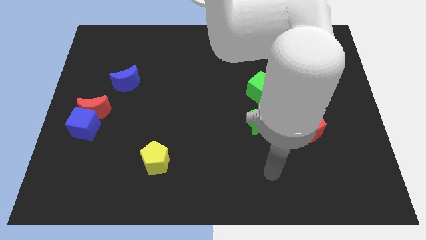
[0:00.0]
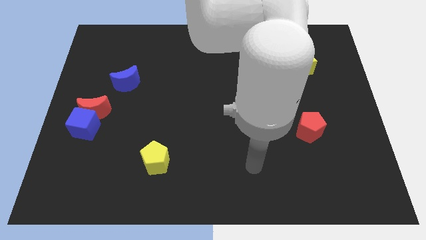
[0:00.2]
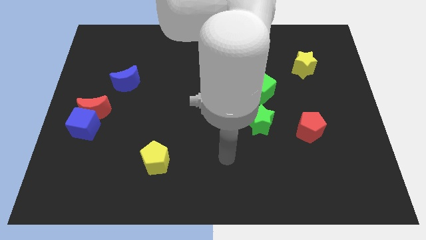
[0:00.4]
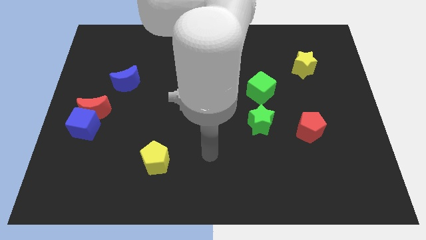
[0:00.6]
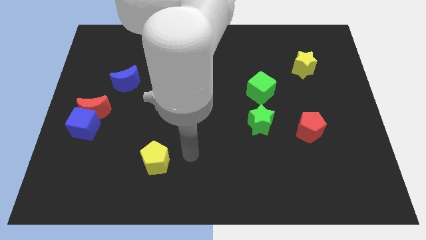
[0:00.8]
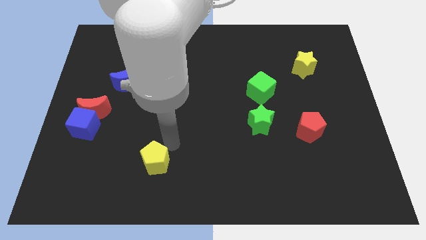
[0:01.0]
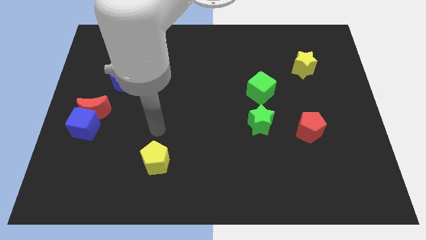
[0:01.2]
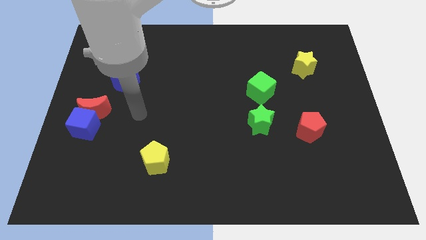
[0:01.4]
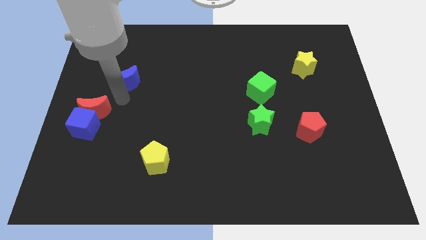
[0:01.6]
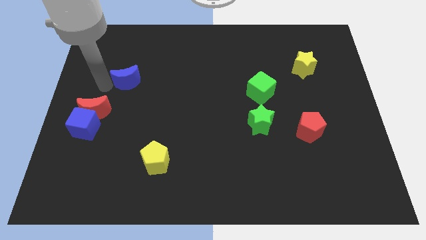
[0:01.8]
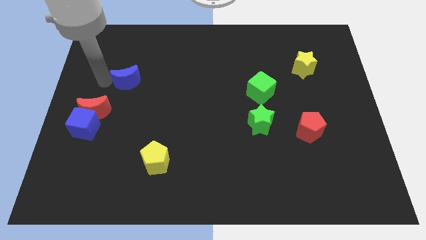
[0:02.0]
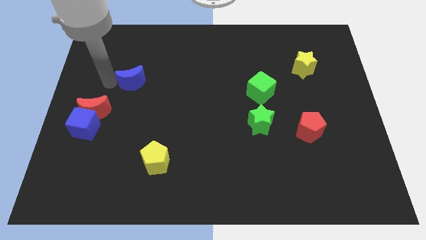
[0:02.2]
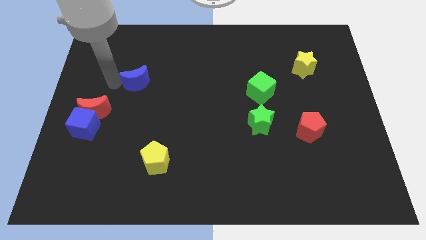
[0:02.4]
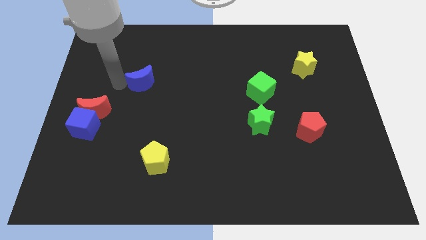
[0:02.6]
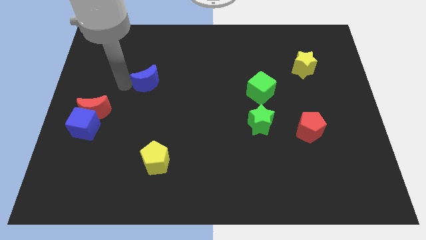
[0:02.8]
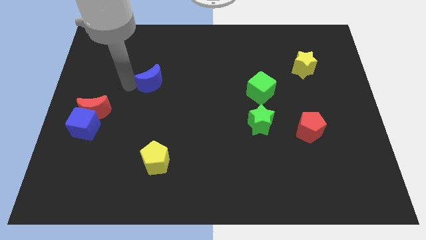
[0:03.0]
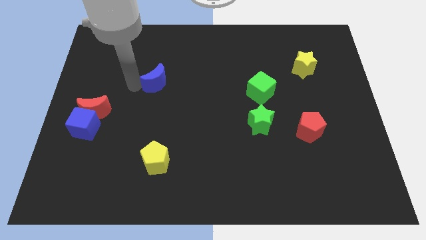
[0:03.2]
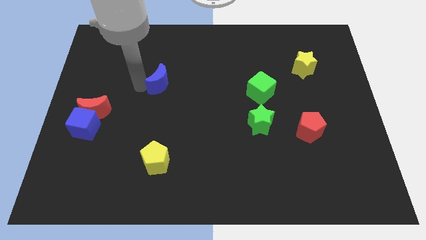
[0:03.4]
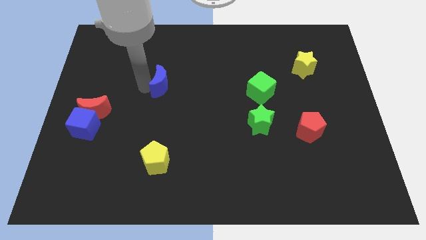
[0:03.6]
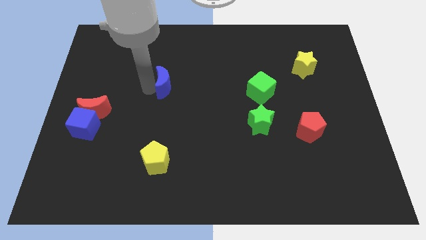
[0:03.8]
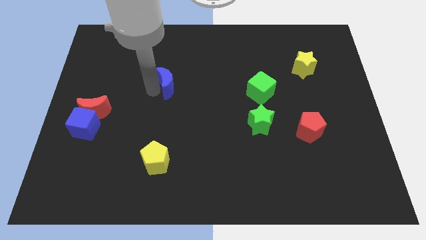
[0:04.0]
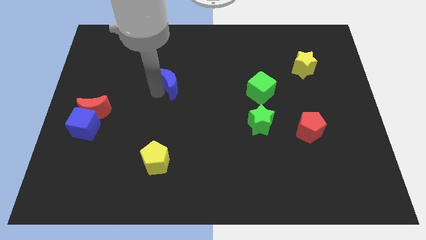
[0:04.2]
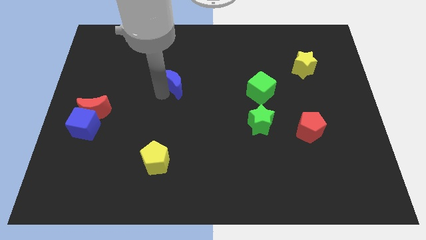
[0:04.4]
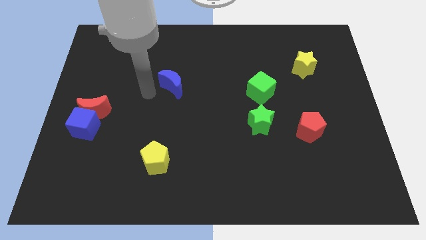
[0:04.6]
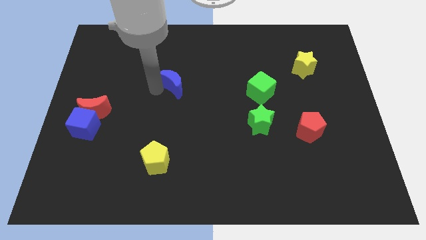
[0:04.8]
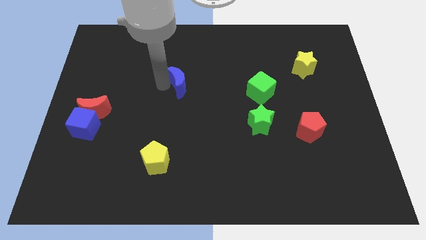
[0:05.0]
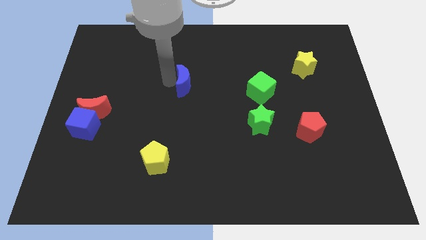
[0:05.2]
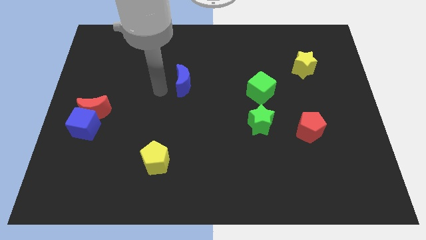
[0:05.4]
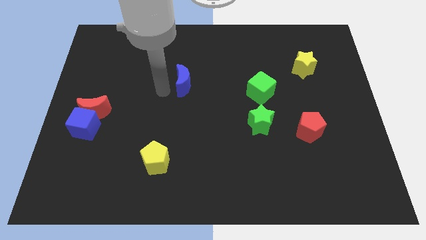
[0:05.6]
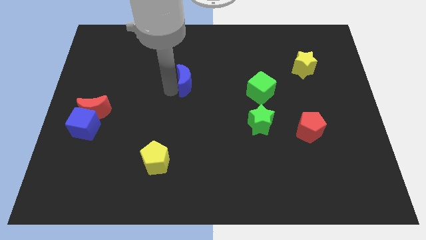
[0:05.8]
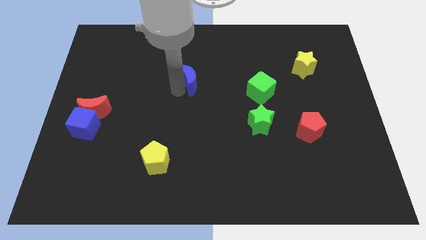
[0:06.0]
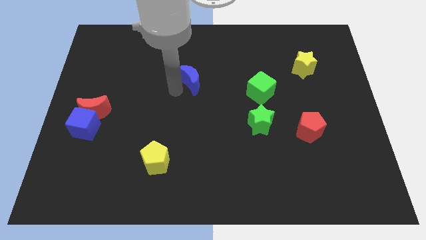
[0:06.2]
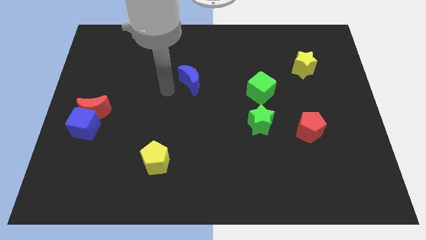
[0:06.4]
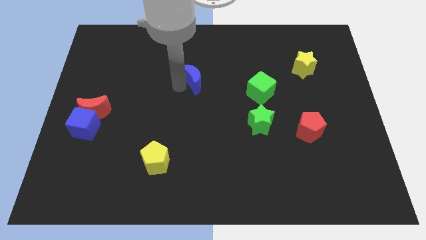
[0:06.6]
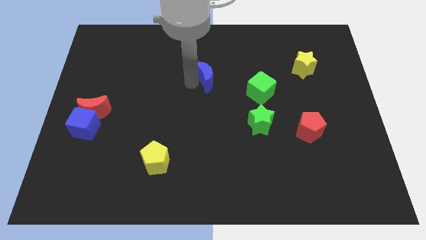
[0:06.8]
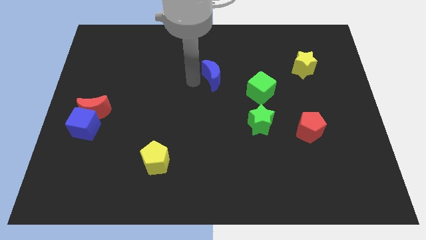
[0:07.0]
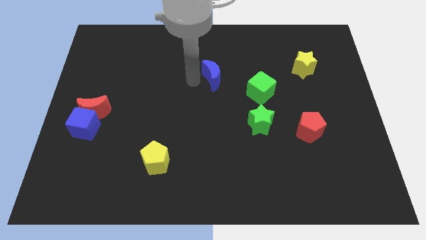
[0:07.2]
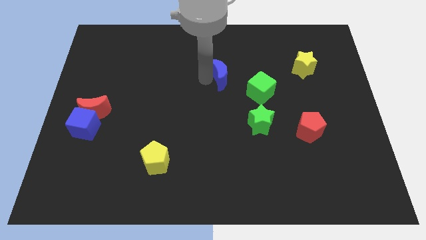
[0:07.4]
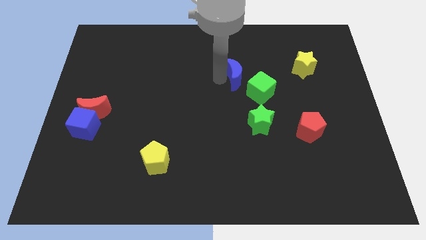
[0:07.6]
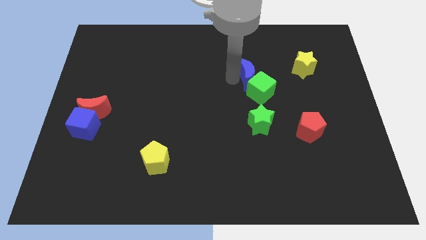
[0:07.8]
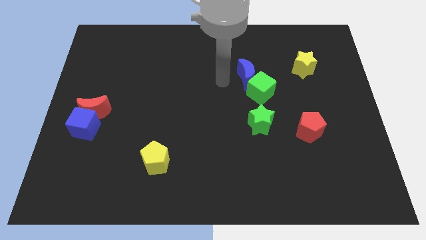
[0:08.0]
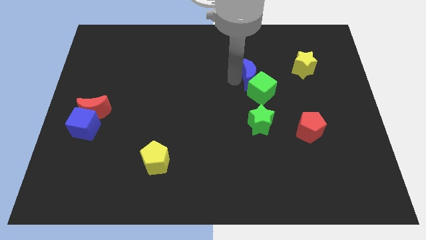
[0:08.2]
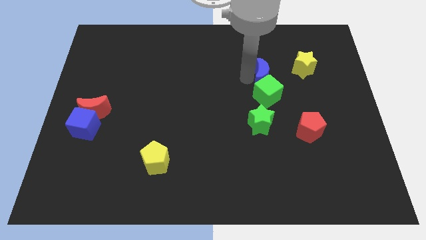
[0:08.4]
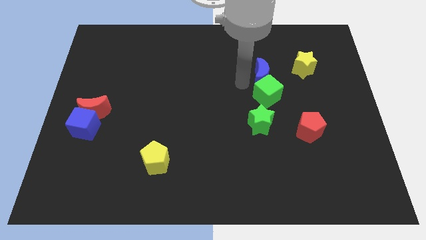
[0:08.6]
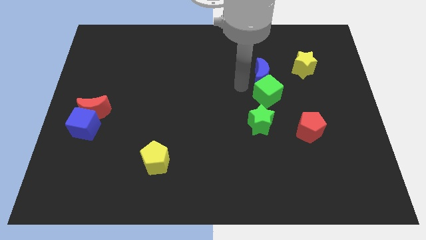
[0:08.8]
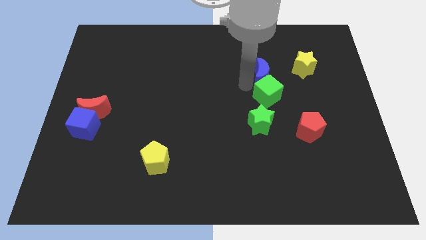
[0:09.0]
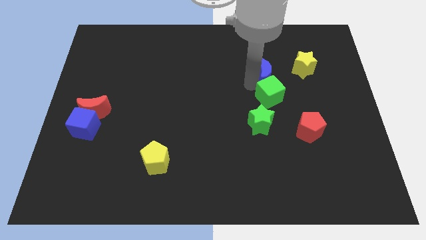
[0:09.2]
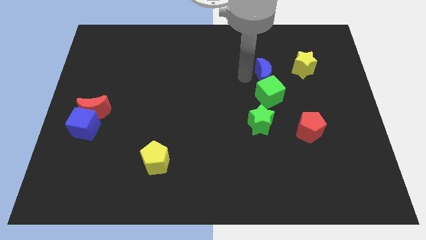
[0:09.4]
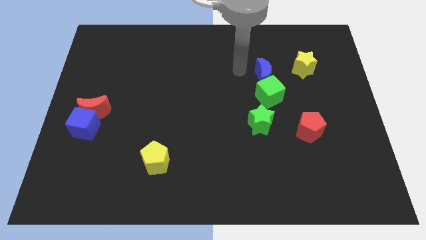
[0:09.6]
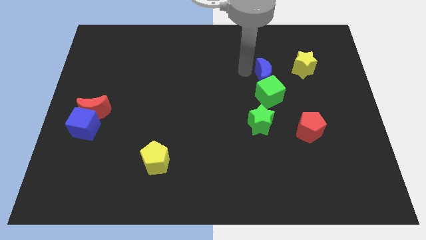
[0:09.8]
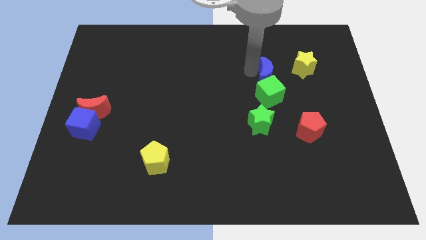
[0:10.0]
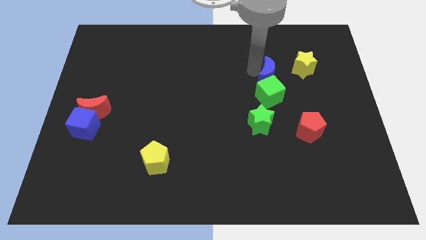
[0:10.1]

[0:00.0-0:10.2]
move the blue moon to the bottom left side of the yellow star

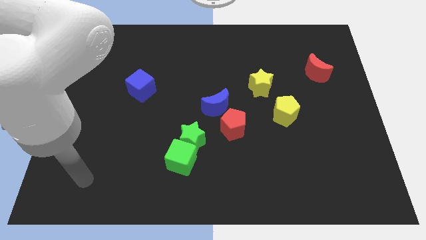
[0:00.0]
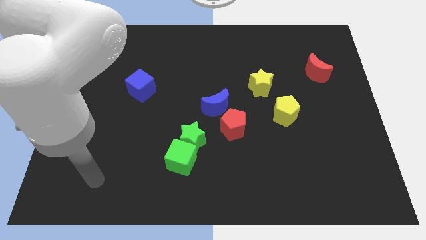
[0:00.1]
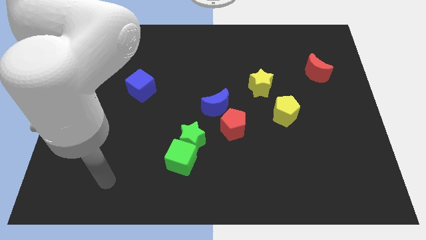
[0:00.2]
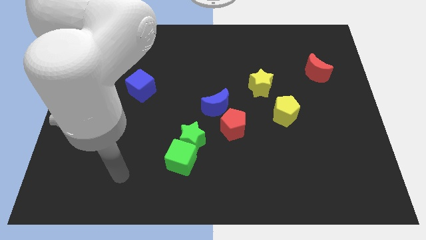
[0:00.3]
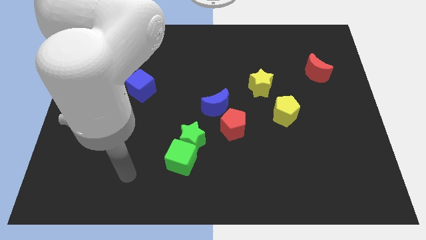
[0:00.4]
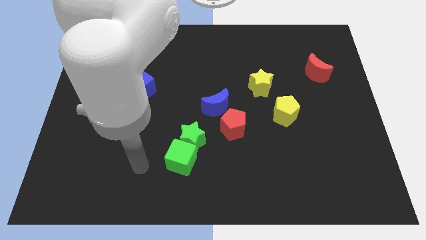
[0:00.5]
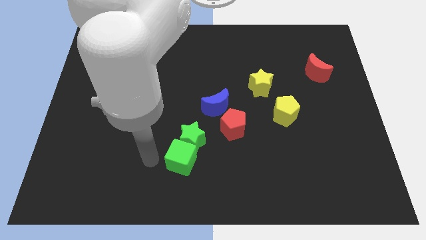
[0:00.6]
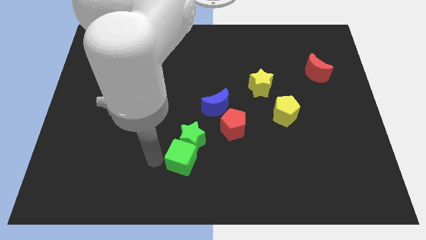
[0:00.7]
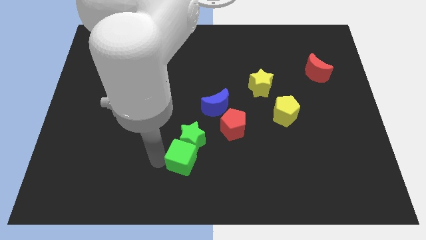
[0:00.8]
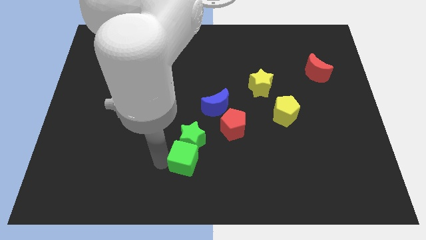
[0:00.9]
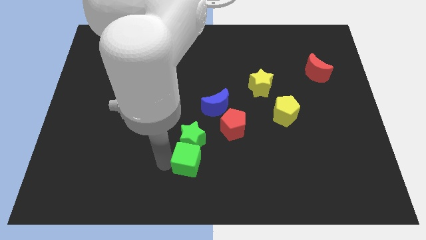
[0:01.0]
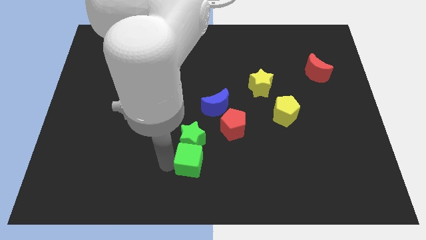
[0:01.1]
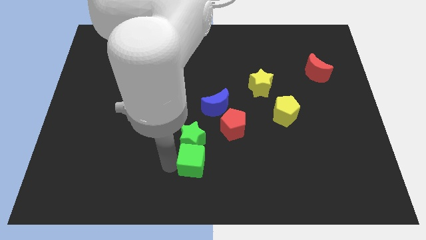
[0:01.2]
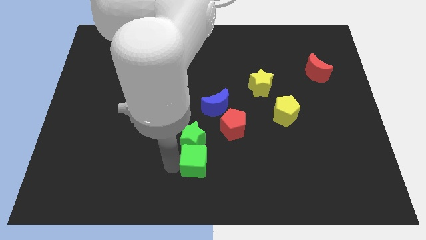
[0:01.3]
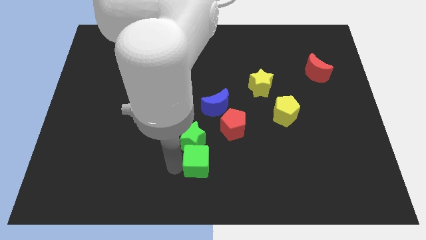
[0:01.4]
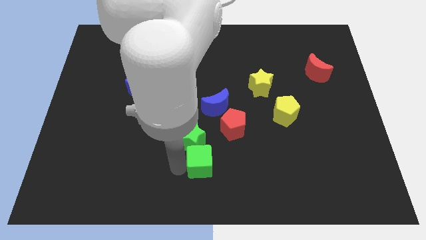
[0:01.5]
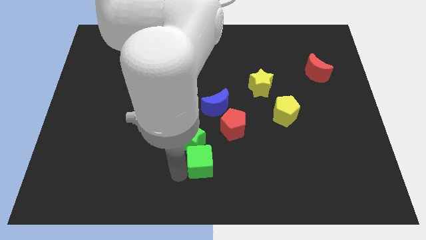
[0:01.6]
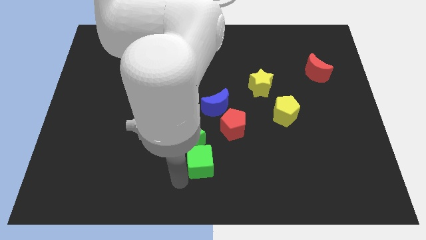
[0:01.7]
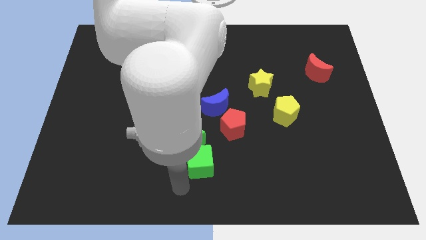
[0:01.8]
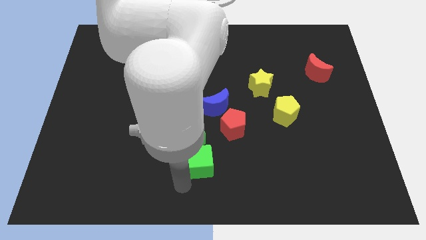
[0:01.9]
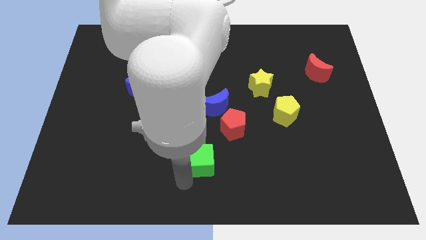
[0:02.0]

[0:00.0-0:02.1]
put the green cube to the bottom side of the blue moon

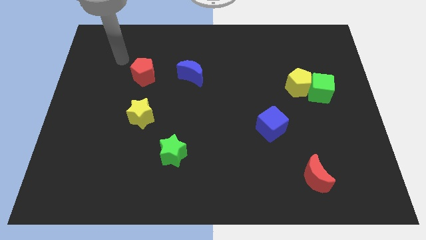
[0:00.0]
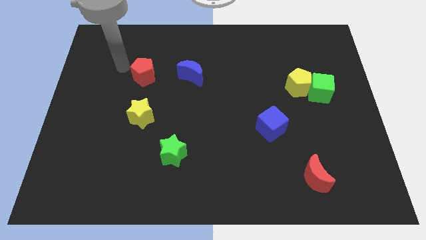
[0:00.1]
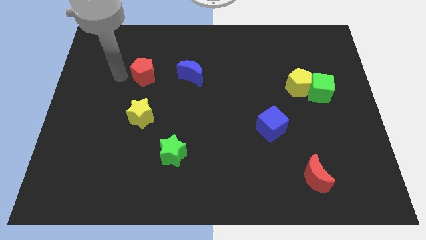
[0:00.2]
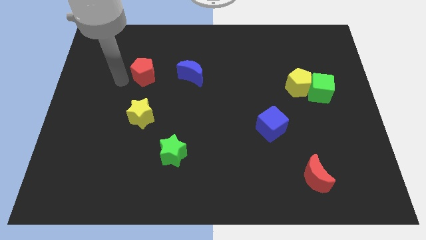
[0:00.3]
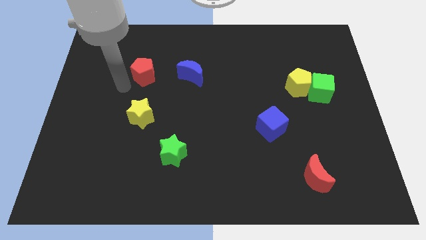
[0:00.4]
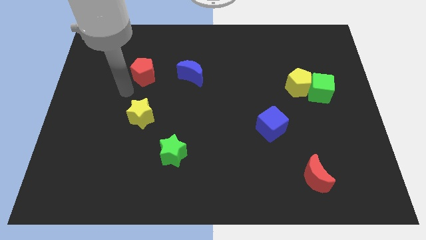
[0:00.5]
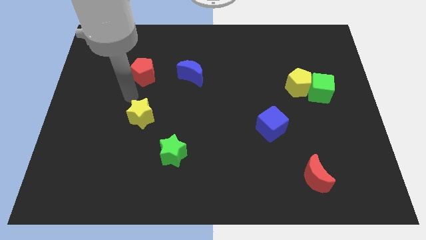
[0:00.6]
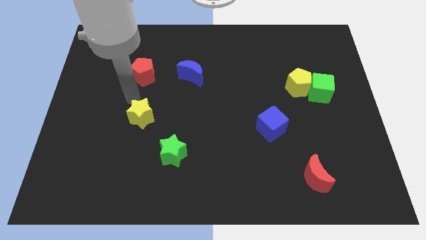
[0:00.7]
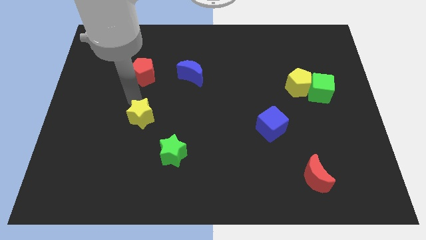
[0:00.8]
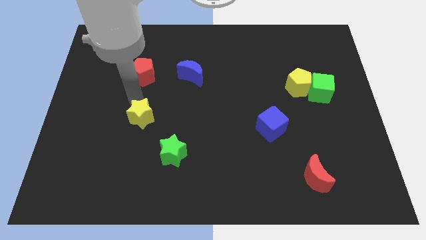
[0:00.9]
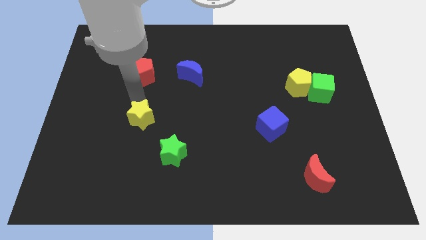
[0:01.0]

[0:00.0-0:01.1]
slide the yellow star diagonally up and to the left of the green star
